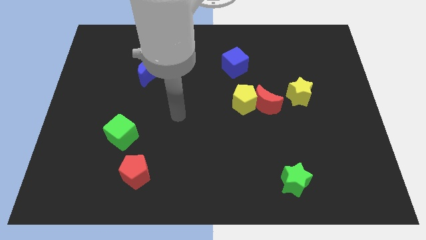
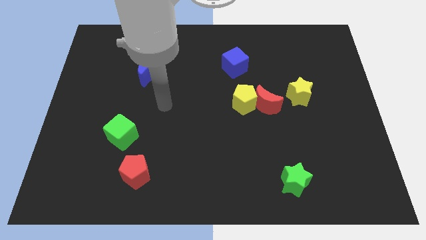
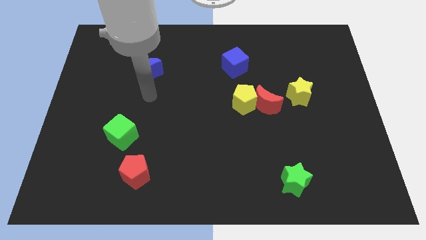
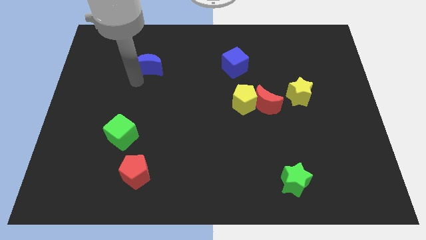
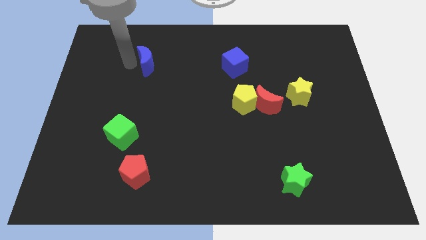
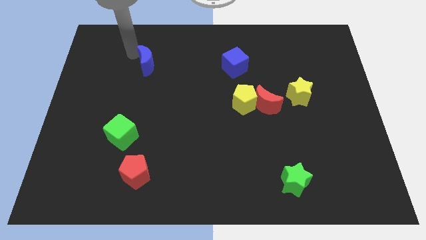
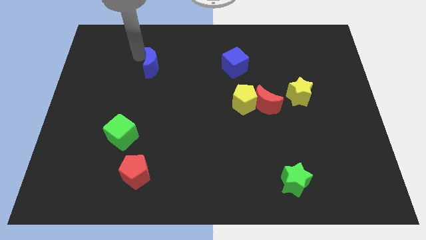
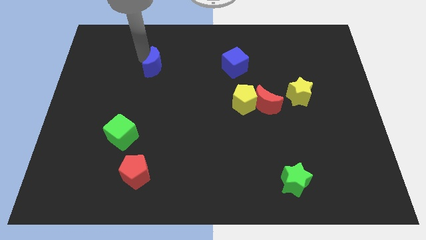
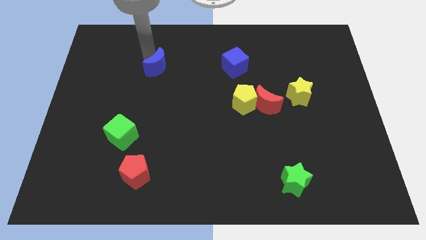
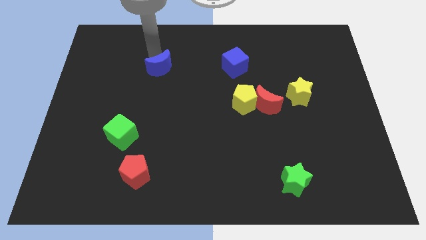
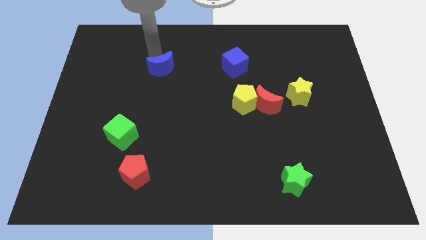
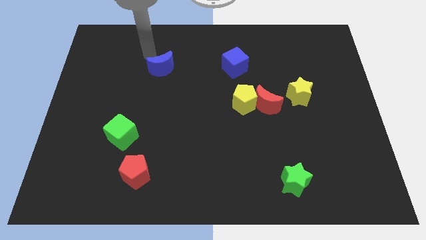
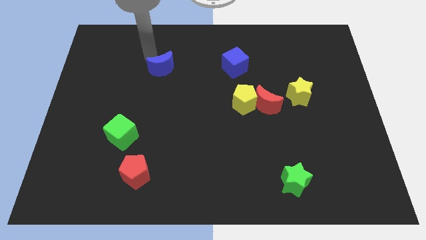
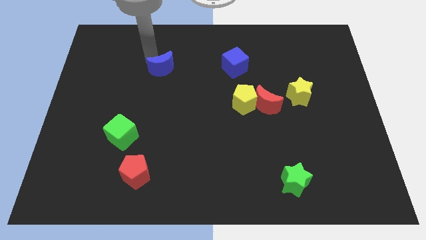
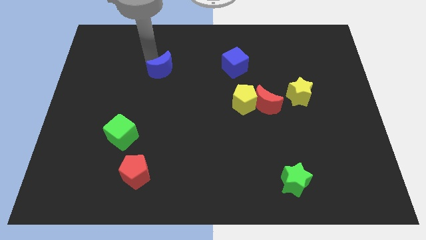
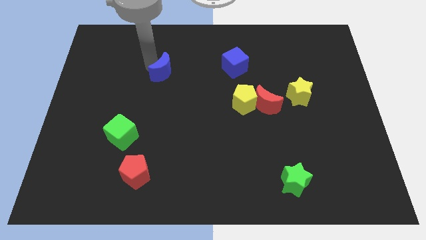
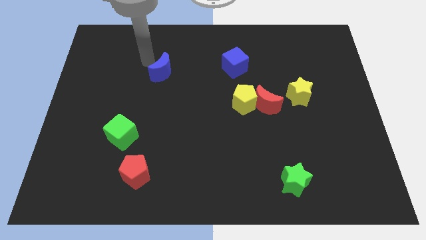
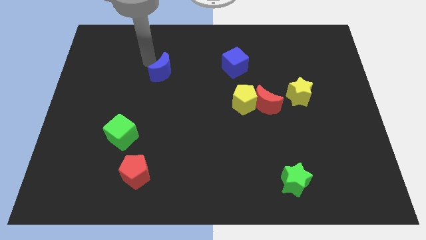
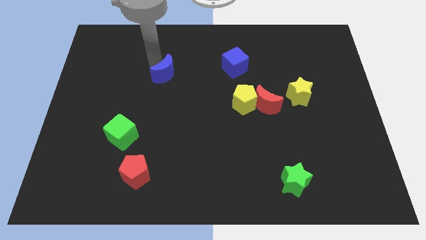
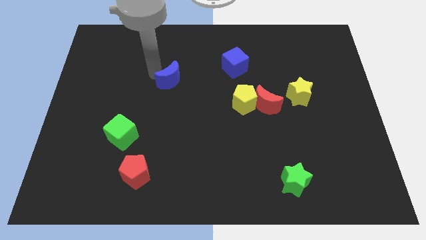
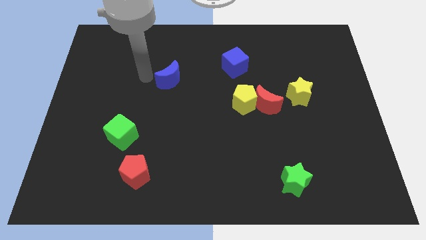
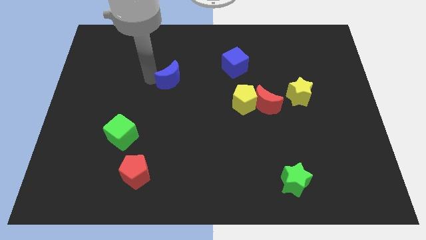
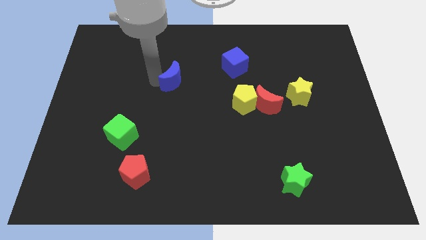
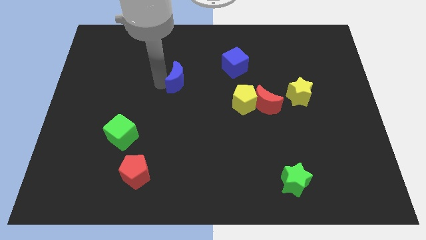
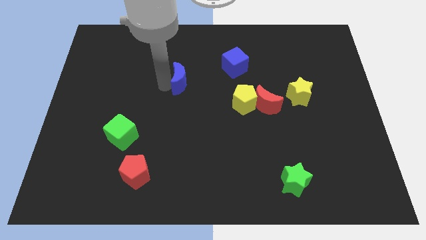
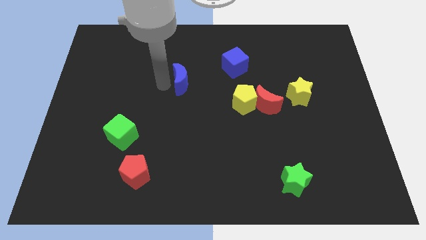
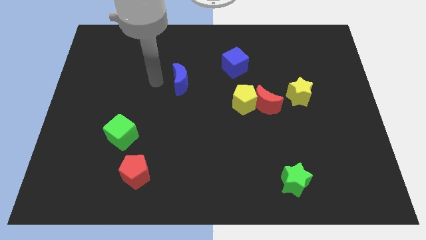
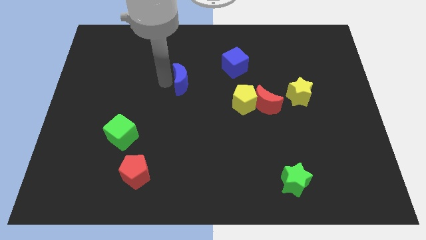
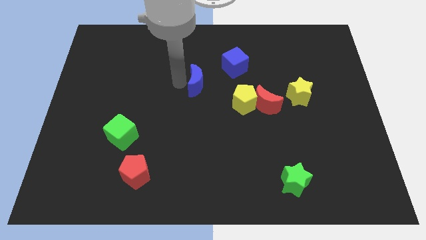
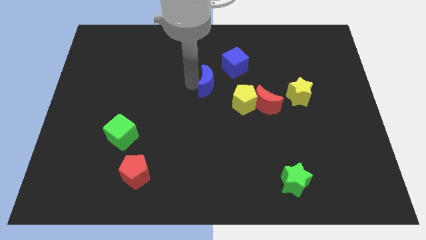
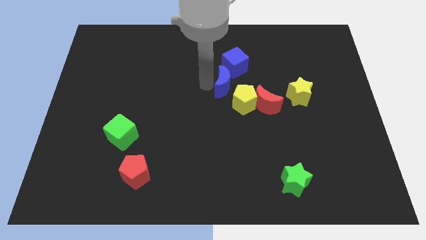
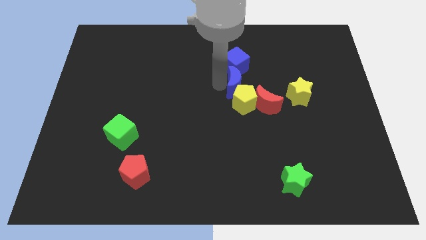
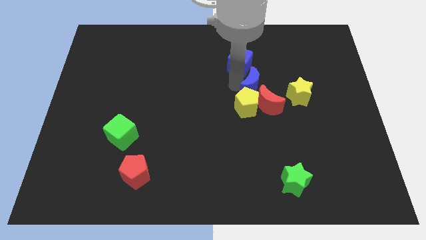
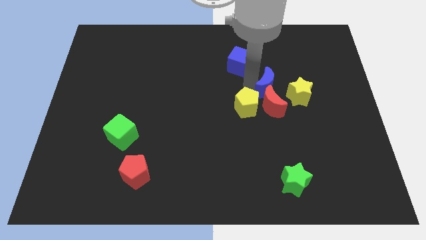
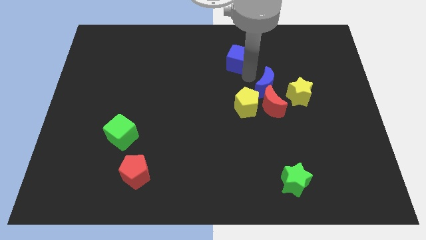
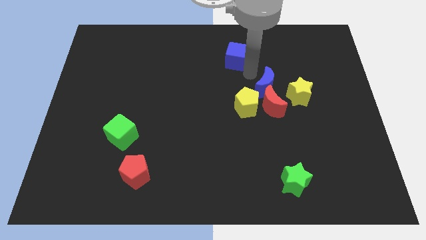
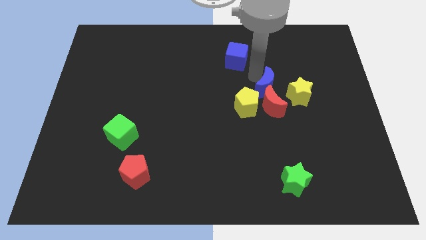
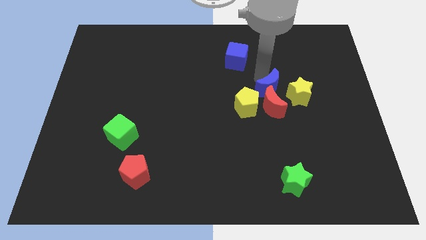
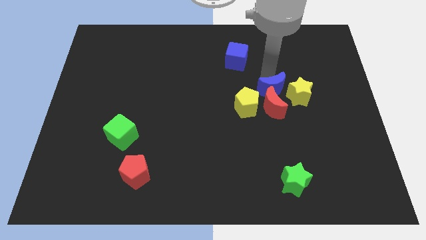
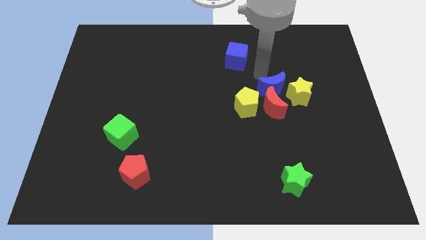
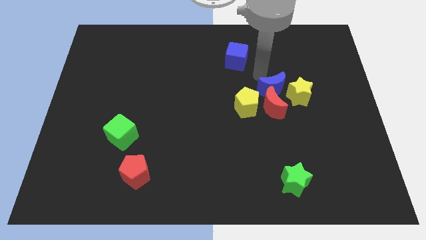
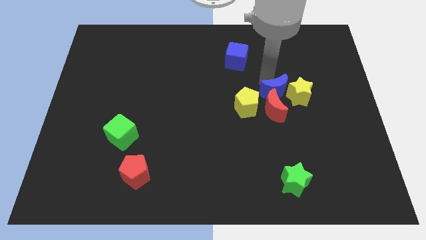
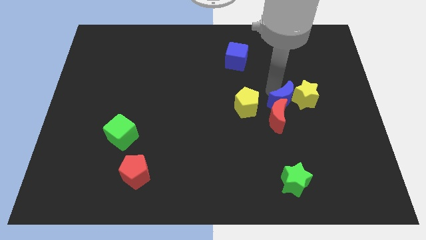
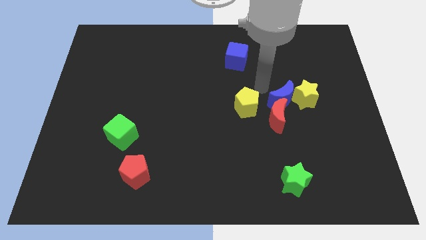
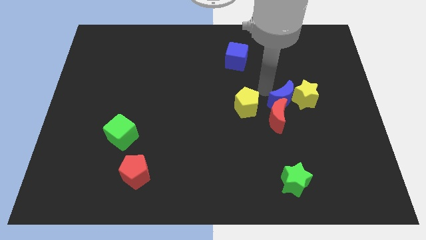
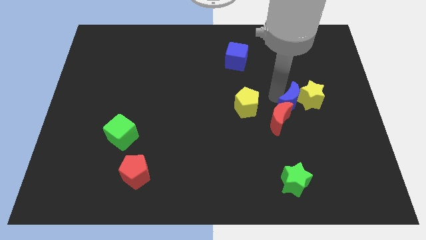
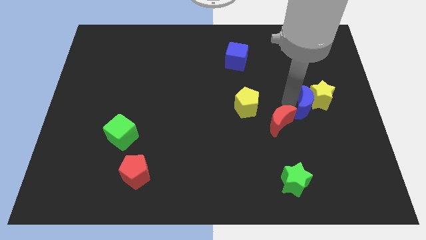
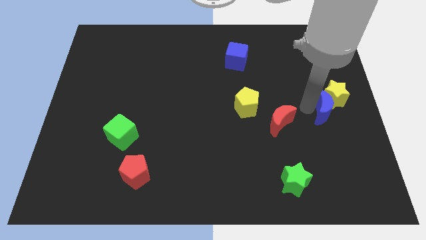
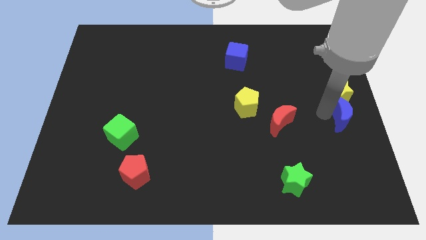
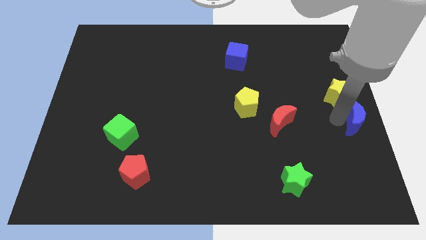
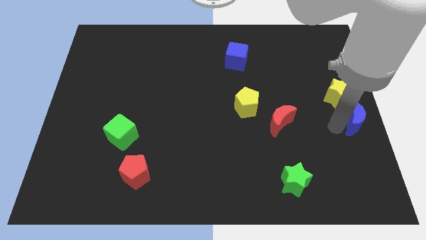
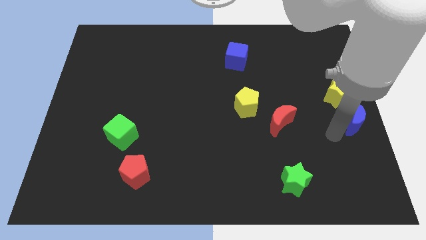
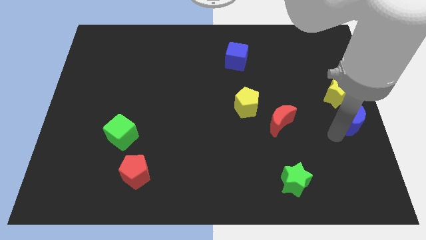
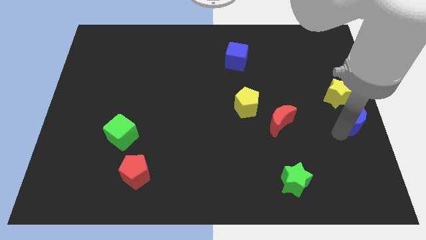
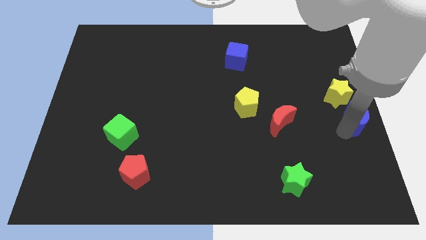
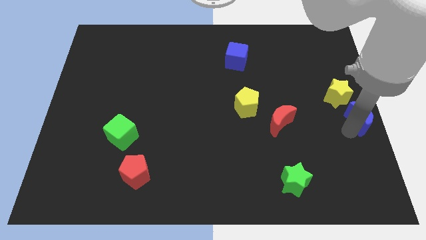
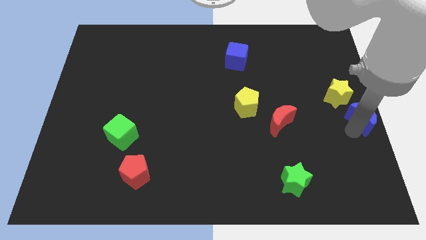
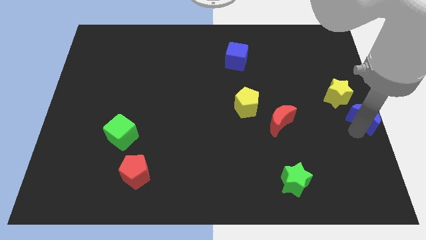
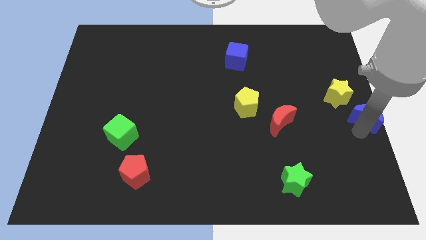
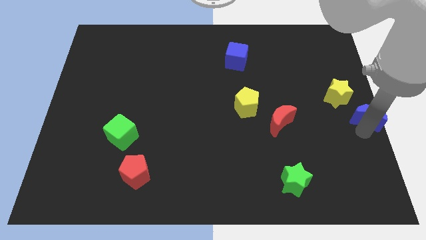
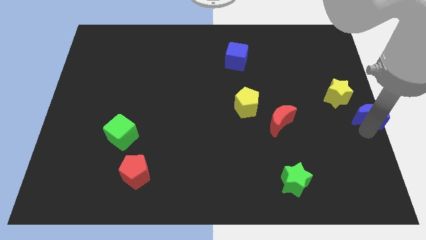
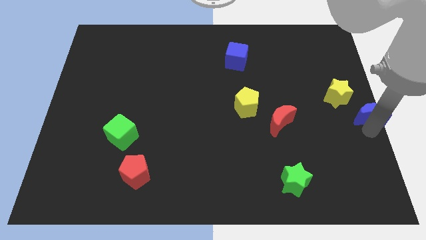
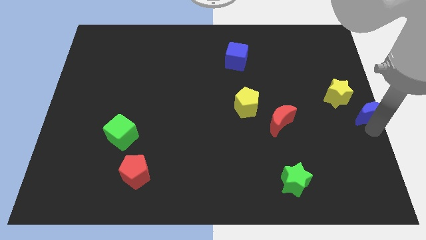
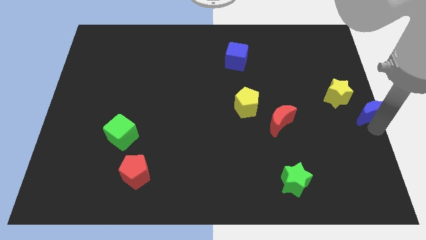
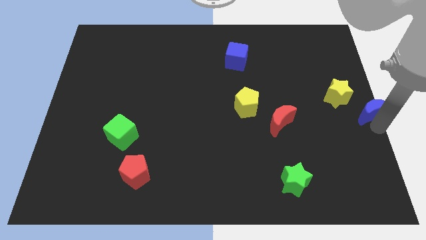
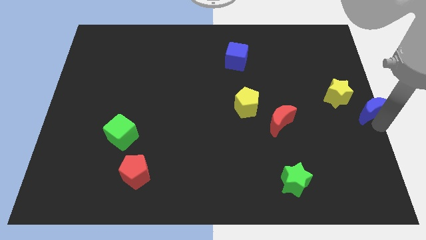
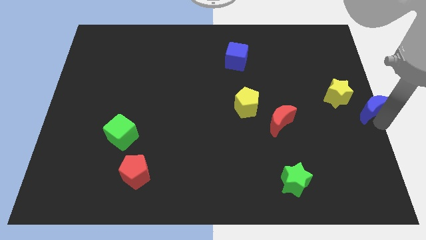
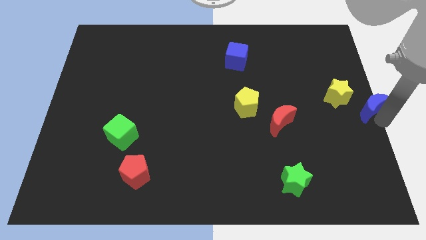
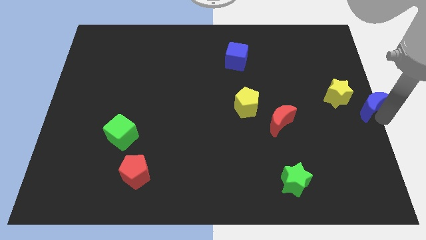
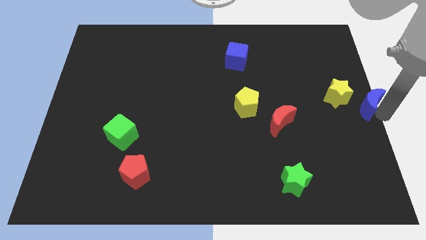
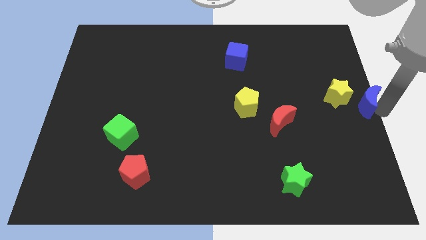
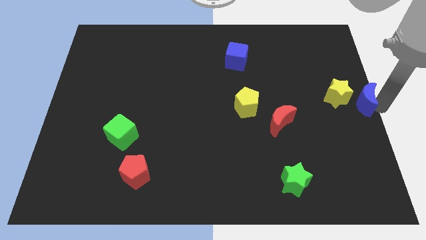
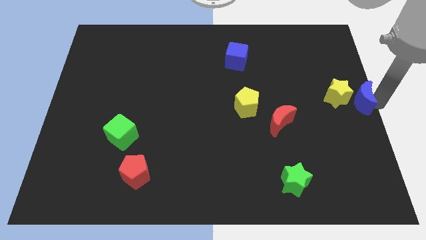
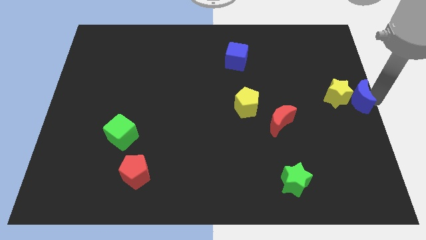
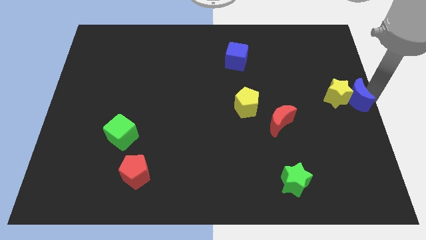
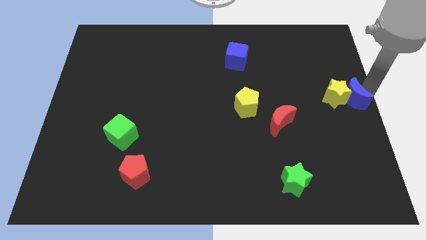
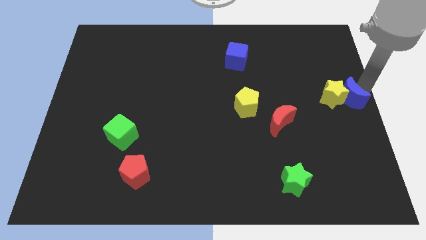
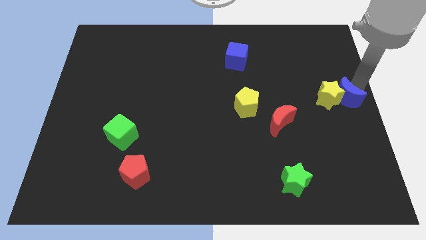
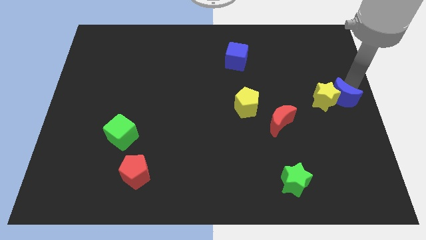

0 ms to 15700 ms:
move the blue moon to the bottom right side of the yellow star
